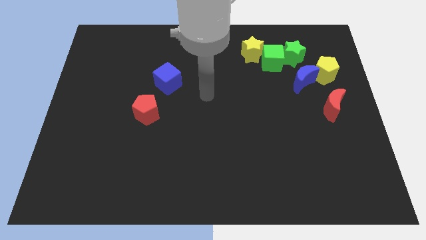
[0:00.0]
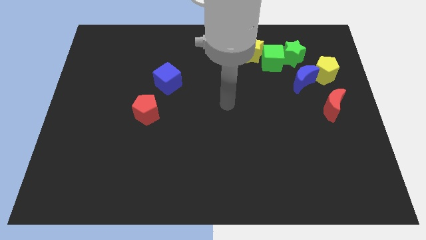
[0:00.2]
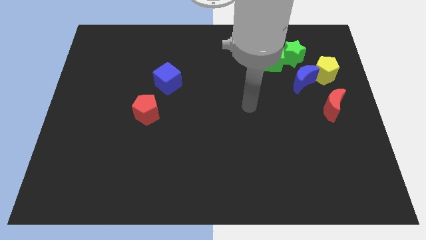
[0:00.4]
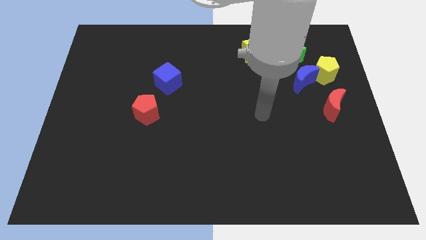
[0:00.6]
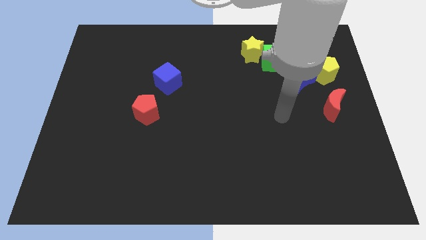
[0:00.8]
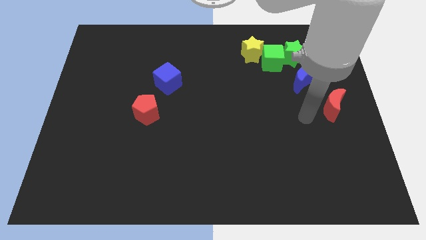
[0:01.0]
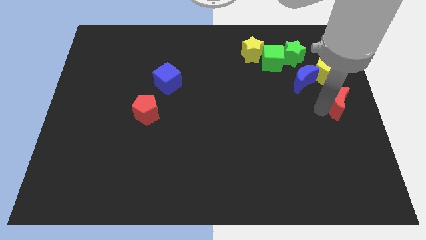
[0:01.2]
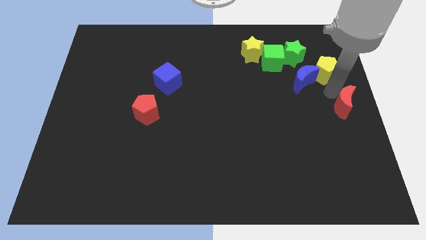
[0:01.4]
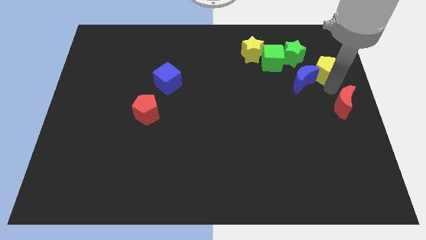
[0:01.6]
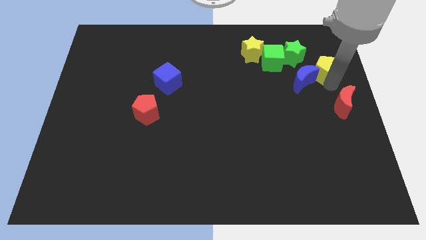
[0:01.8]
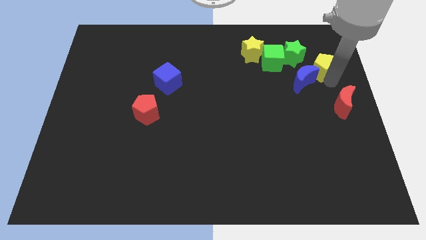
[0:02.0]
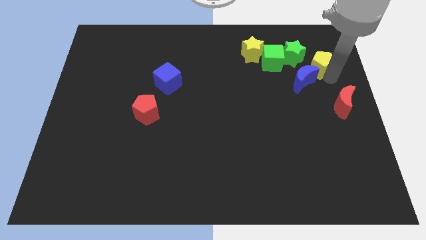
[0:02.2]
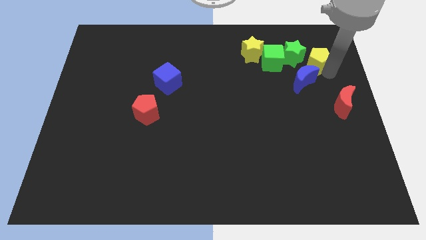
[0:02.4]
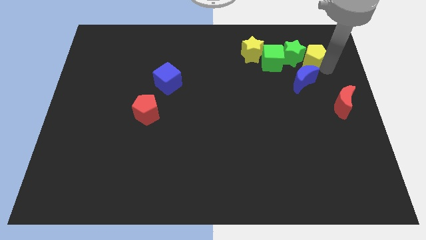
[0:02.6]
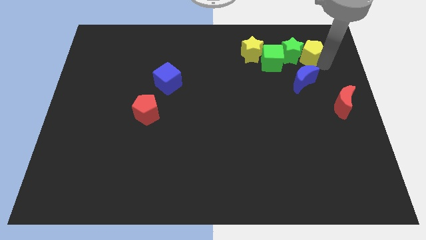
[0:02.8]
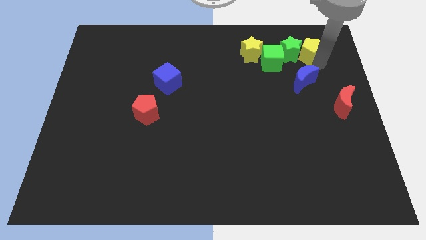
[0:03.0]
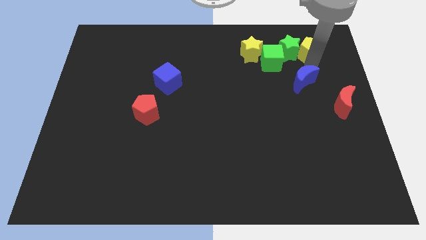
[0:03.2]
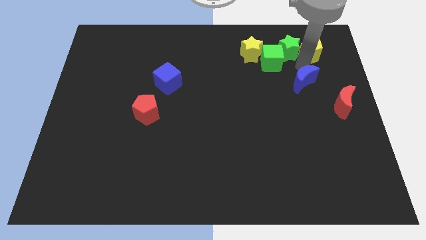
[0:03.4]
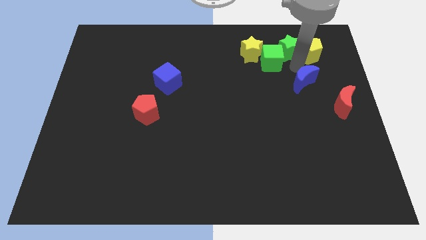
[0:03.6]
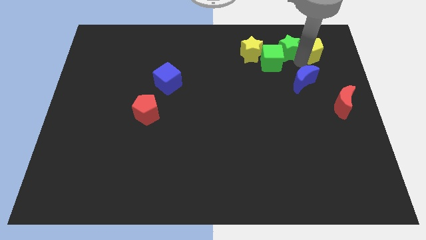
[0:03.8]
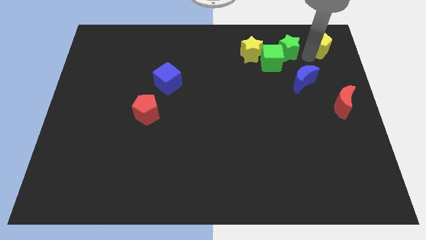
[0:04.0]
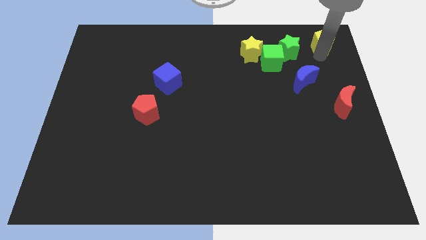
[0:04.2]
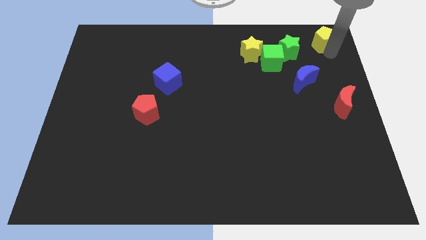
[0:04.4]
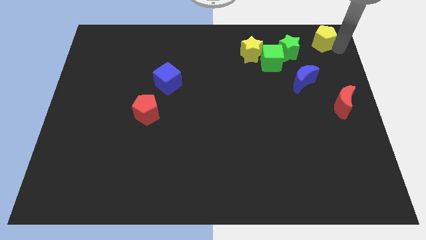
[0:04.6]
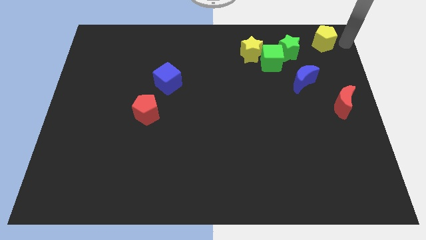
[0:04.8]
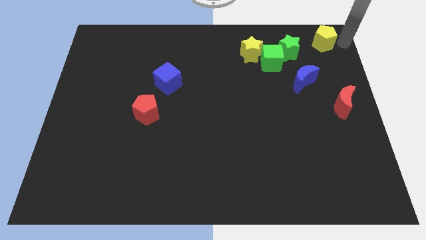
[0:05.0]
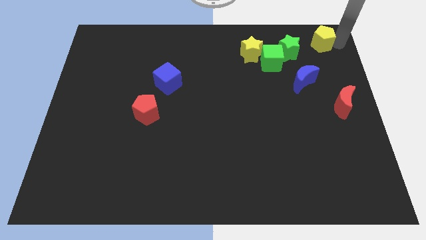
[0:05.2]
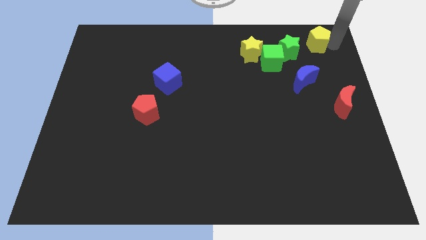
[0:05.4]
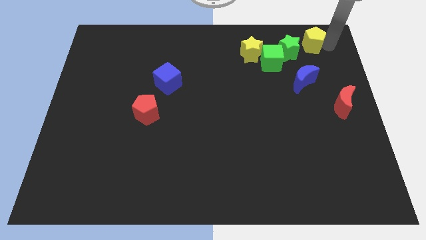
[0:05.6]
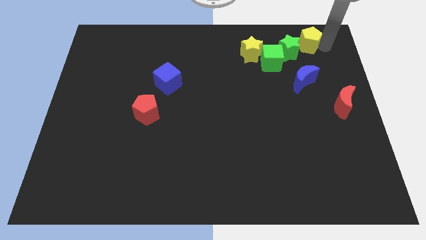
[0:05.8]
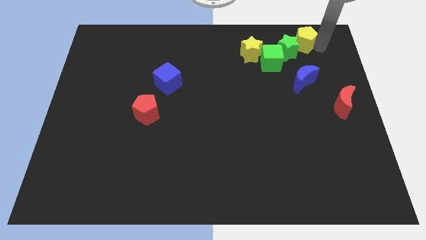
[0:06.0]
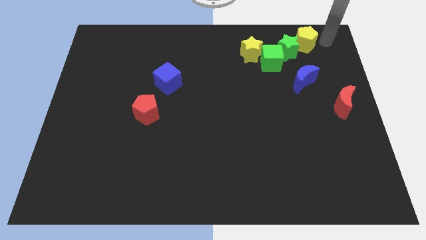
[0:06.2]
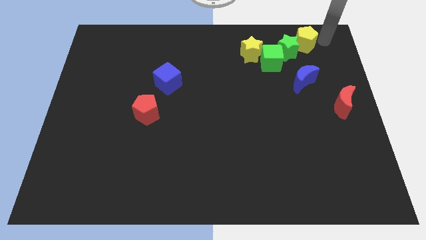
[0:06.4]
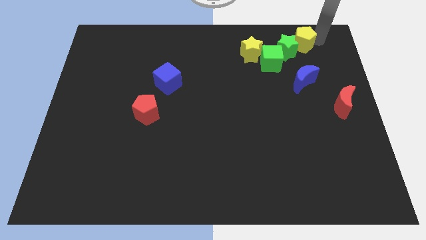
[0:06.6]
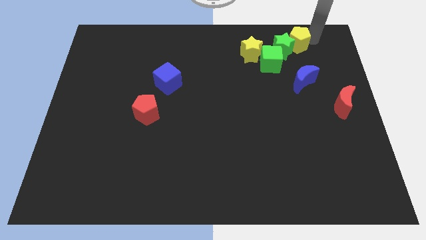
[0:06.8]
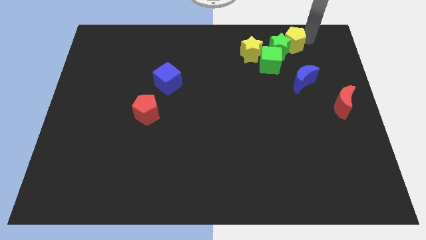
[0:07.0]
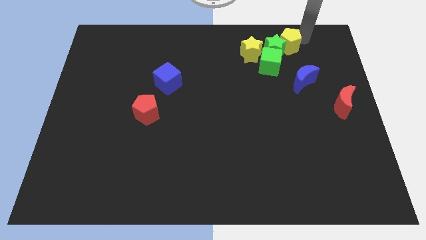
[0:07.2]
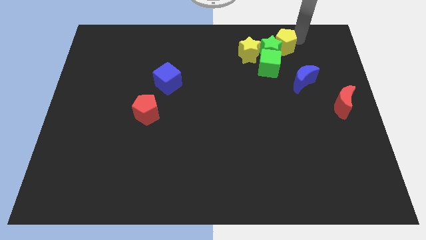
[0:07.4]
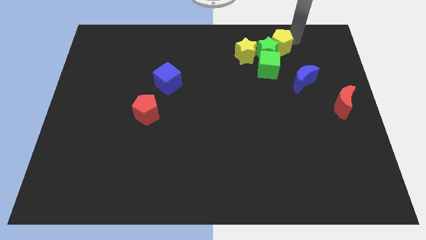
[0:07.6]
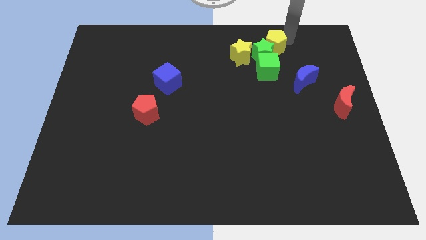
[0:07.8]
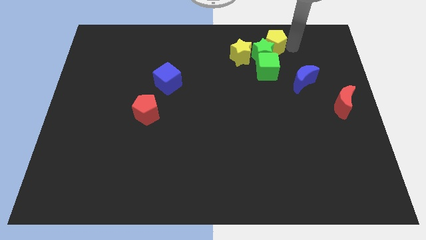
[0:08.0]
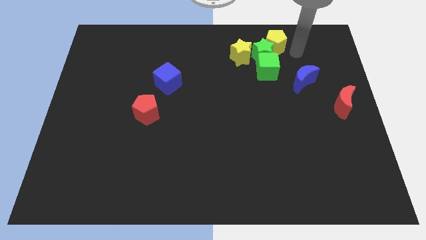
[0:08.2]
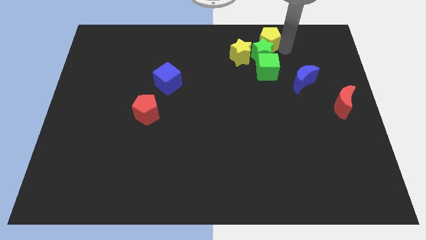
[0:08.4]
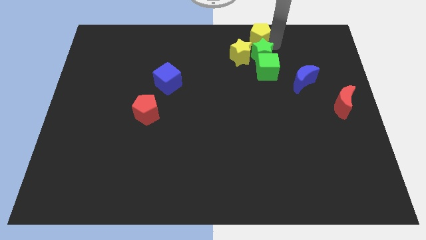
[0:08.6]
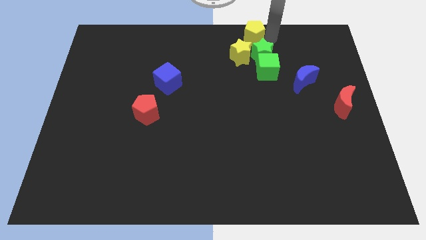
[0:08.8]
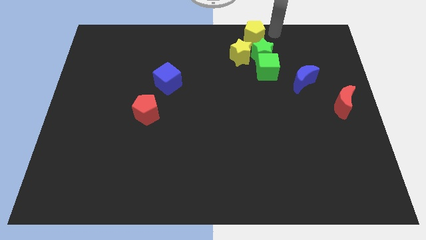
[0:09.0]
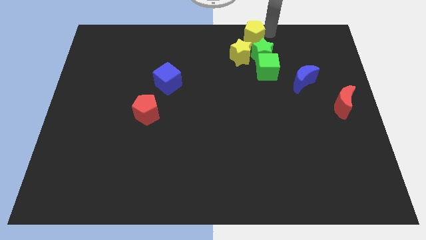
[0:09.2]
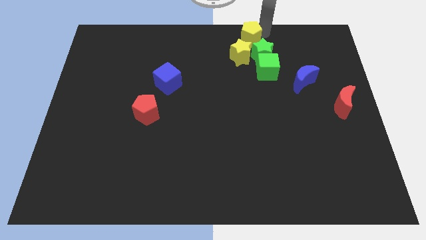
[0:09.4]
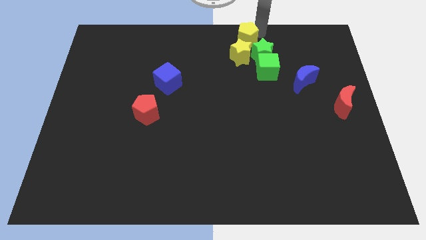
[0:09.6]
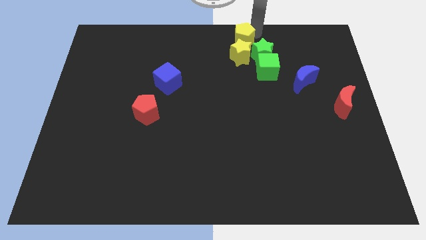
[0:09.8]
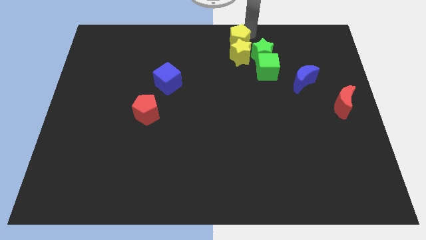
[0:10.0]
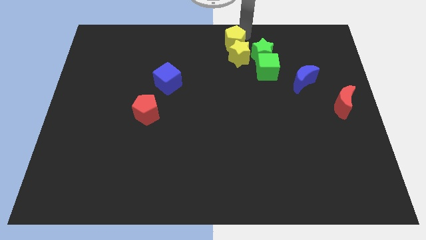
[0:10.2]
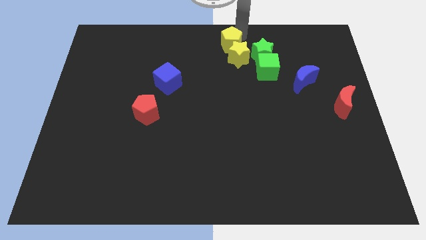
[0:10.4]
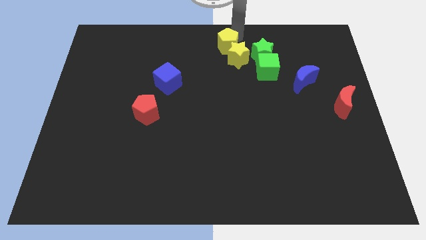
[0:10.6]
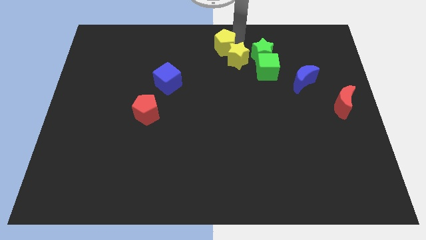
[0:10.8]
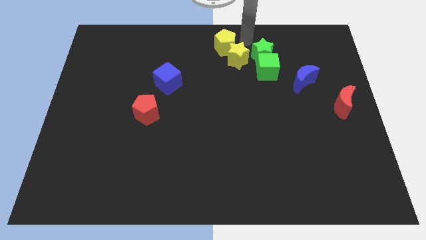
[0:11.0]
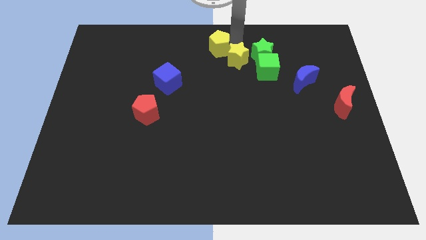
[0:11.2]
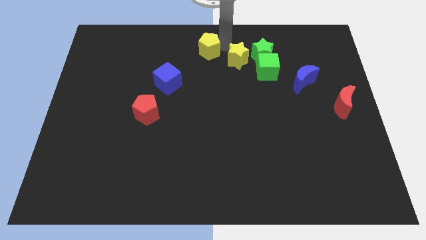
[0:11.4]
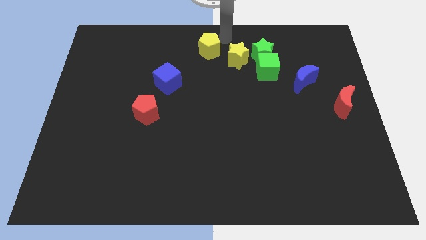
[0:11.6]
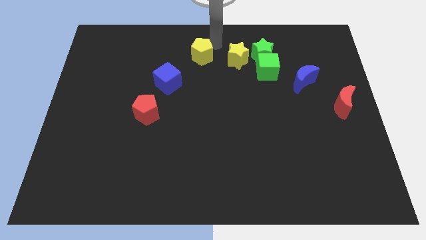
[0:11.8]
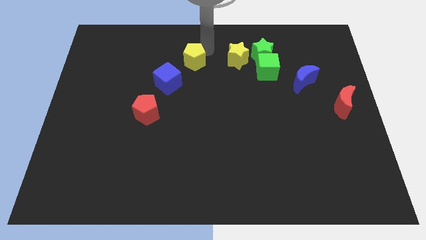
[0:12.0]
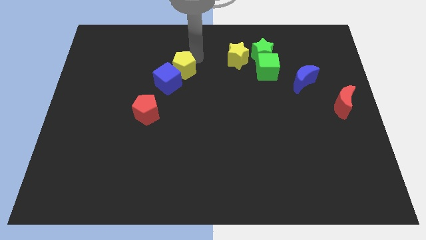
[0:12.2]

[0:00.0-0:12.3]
slide the yellow pentagon close to the blue cube

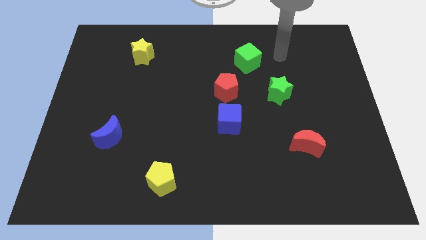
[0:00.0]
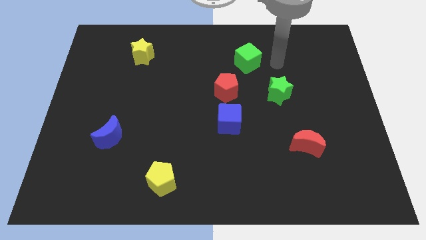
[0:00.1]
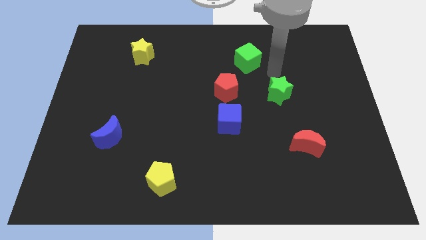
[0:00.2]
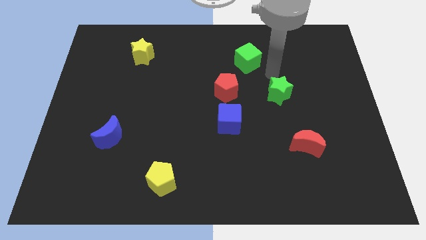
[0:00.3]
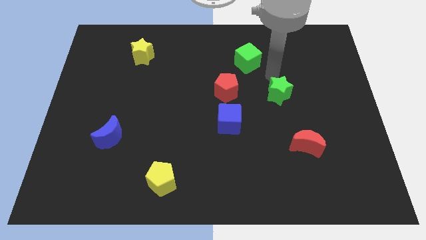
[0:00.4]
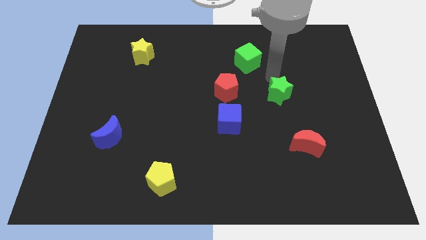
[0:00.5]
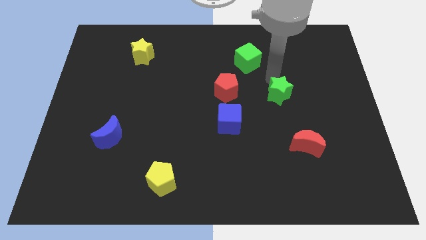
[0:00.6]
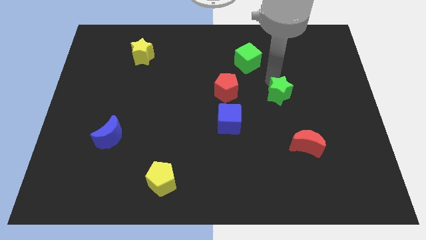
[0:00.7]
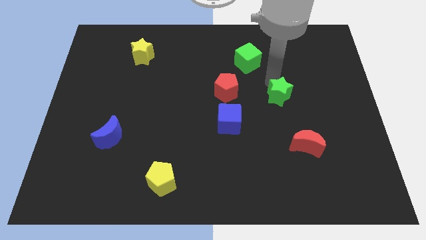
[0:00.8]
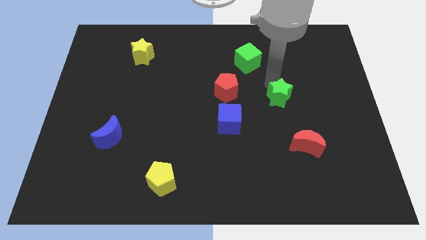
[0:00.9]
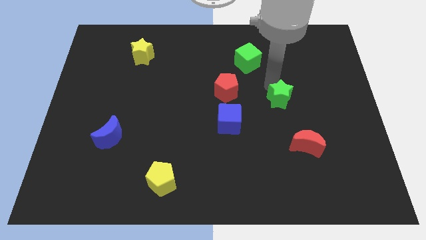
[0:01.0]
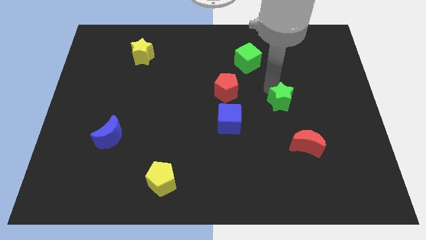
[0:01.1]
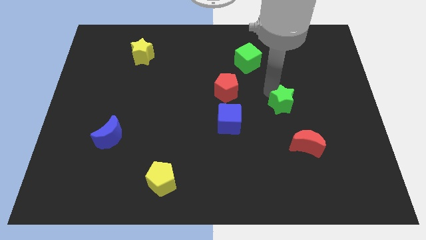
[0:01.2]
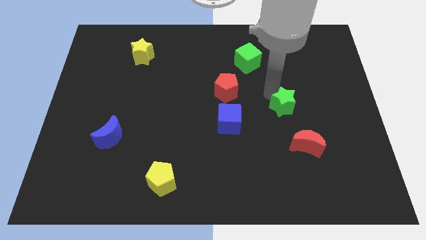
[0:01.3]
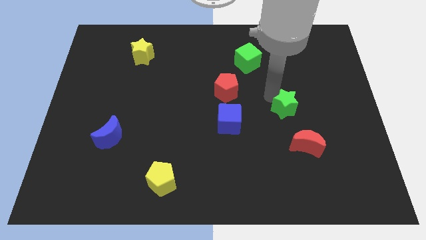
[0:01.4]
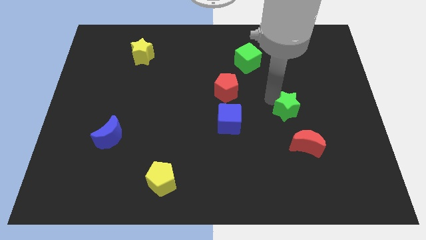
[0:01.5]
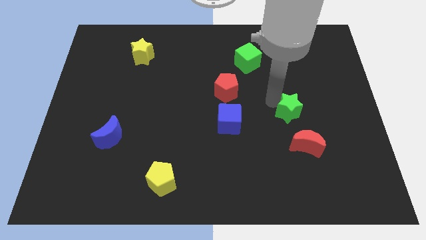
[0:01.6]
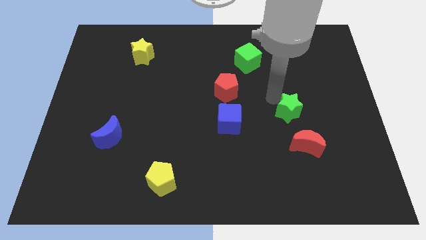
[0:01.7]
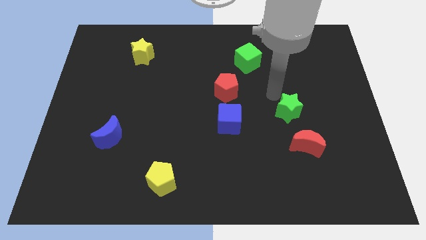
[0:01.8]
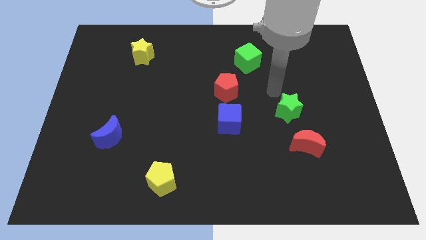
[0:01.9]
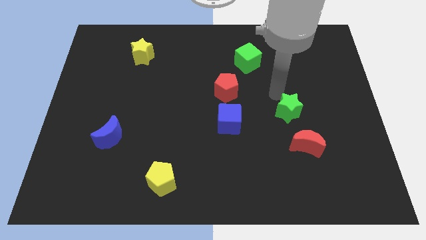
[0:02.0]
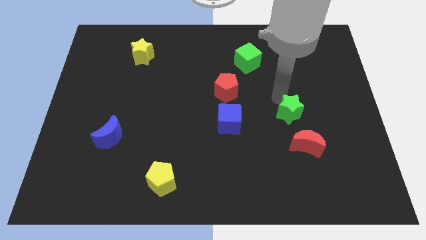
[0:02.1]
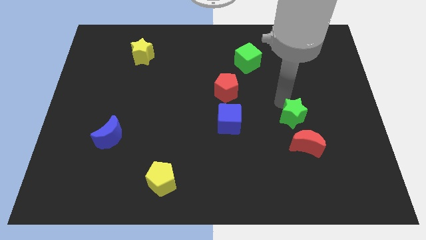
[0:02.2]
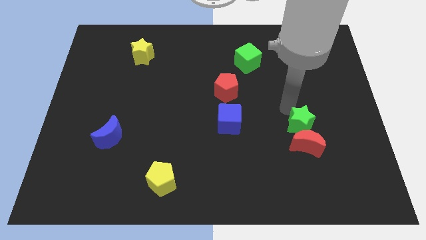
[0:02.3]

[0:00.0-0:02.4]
push the green star close to the red moon
